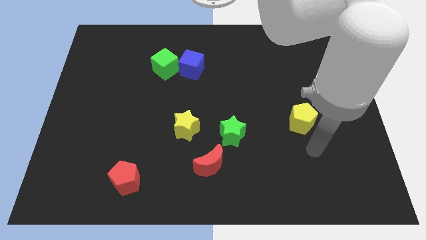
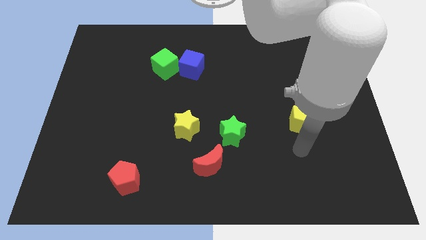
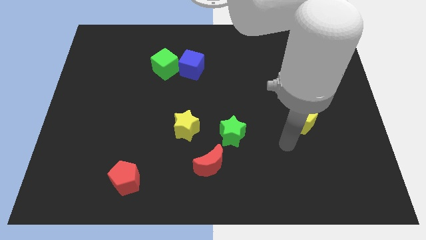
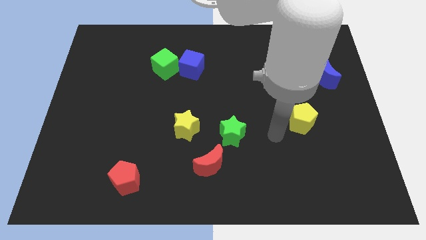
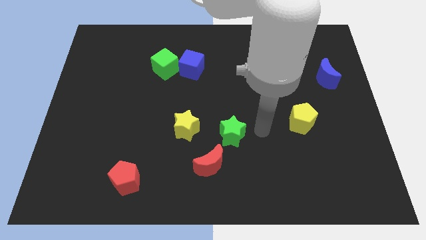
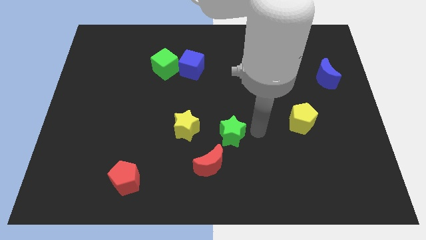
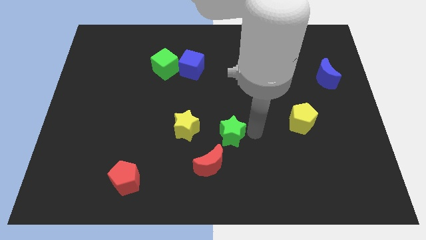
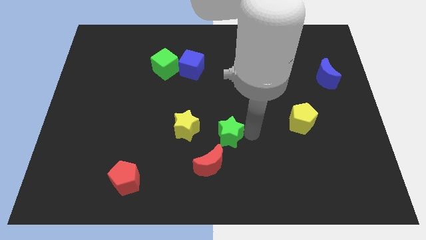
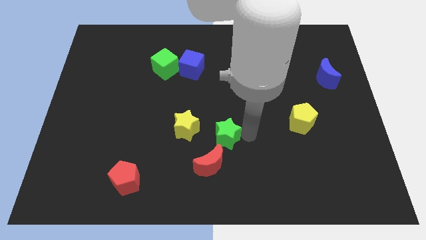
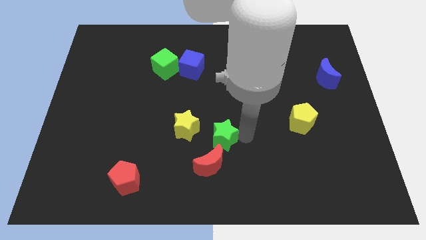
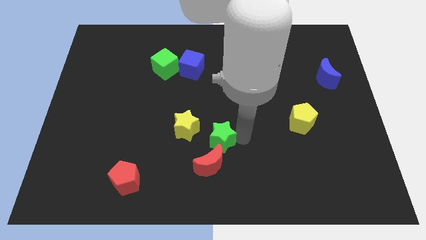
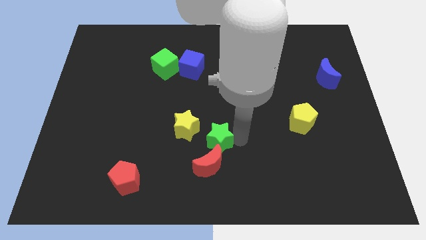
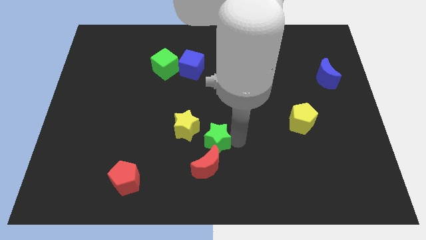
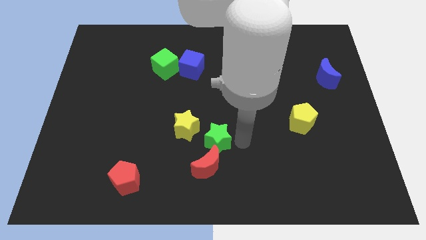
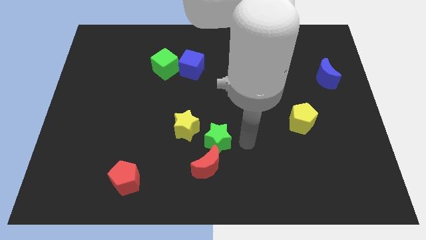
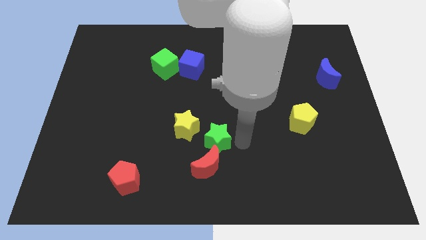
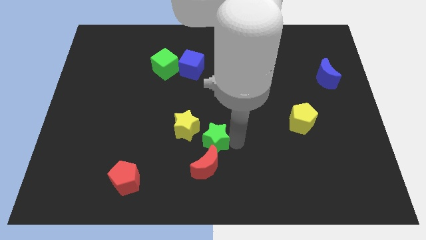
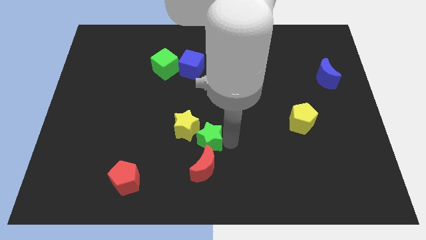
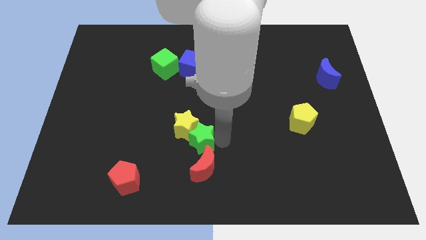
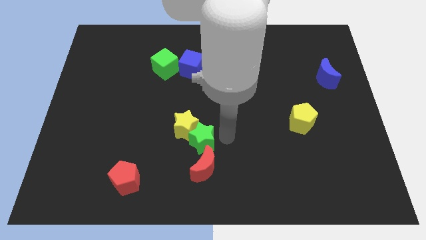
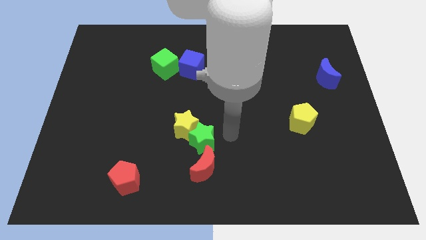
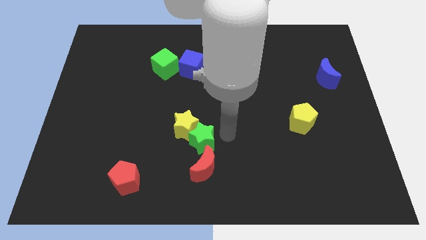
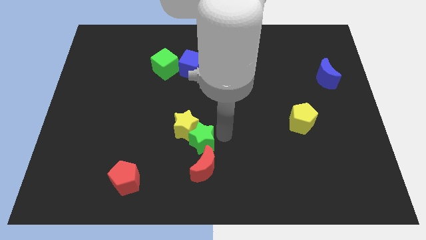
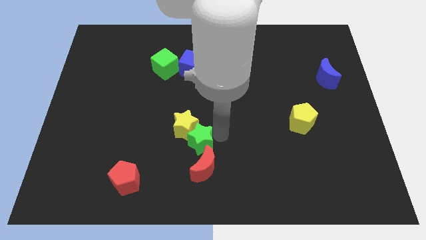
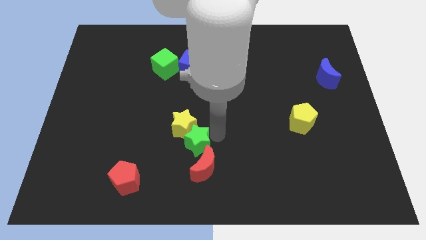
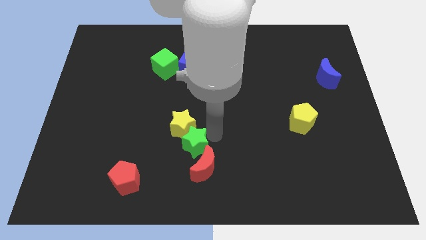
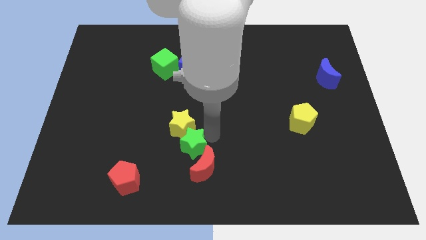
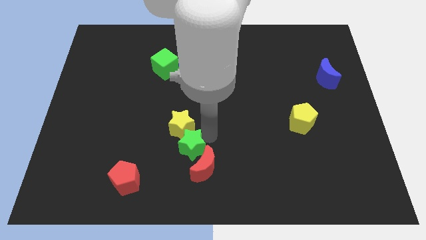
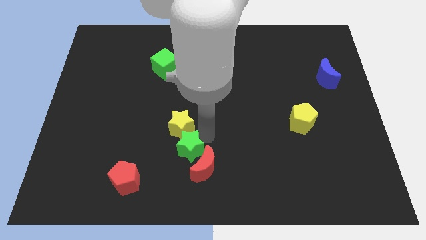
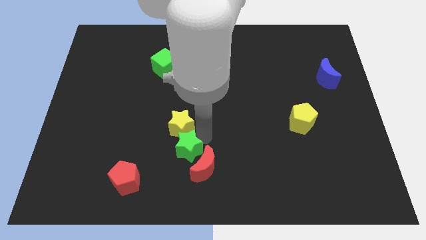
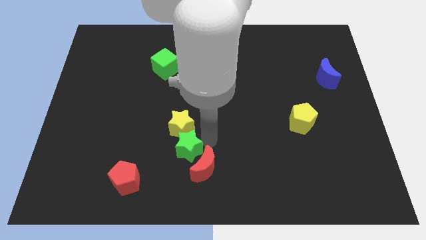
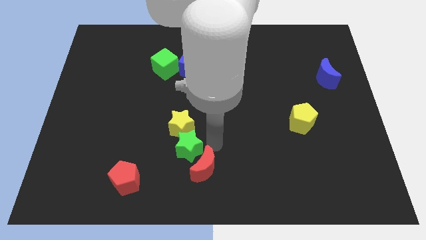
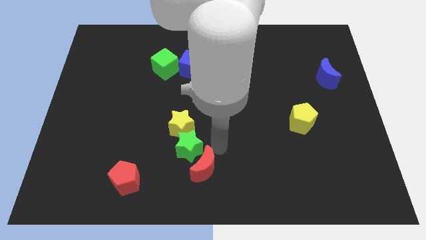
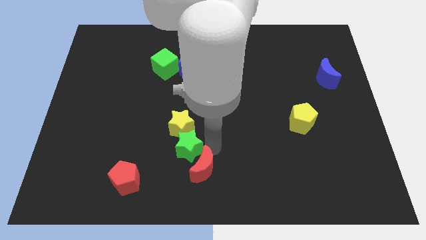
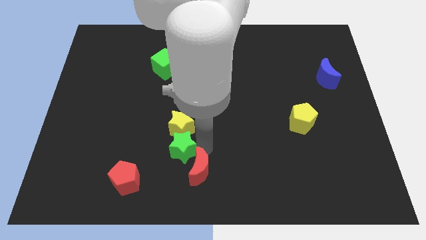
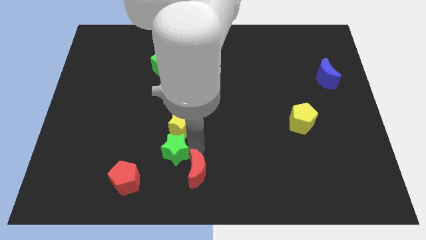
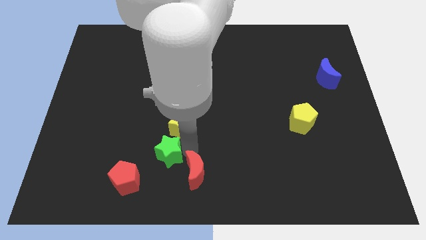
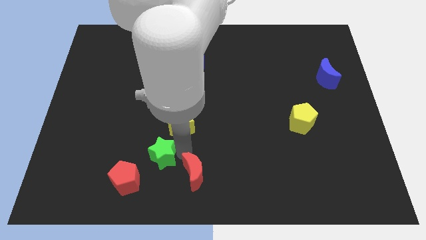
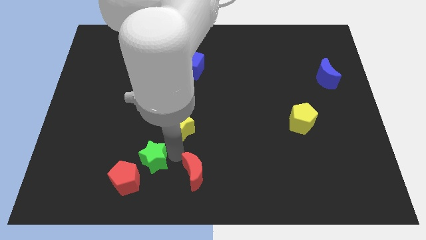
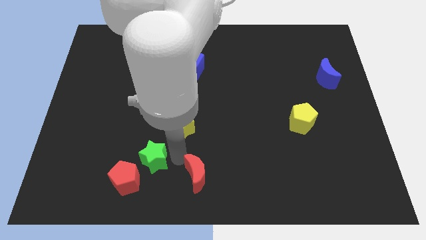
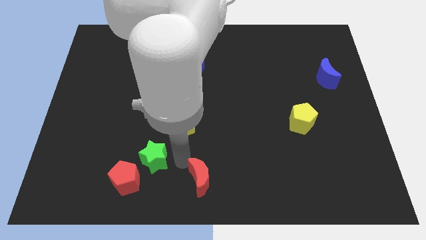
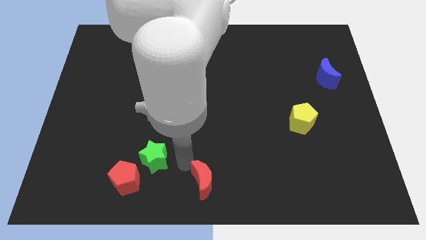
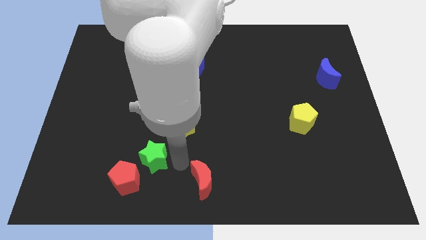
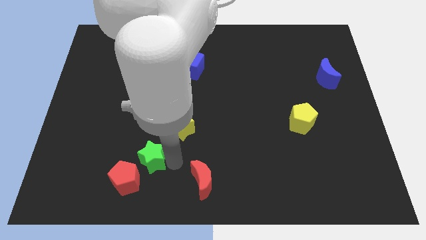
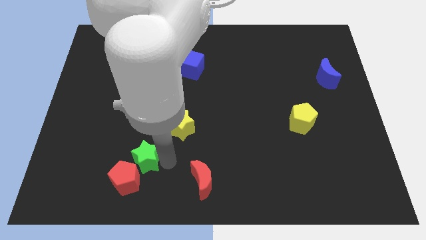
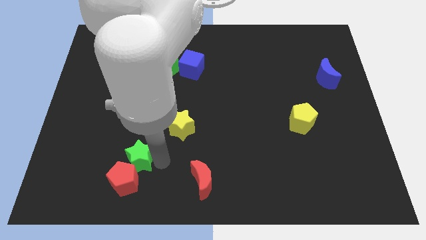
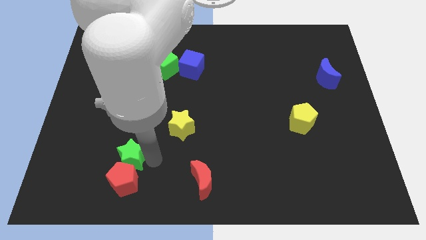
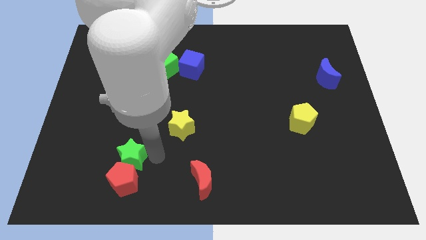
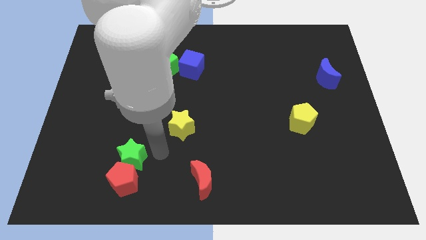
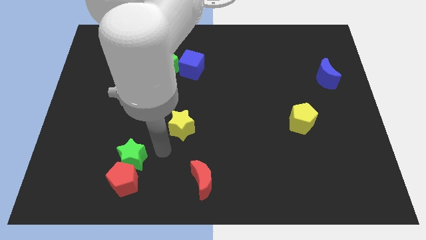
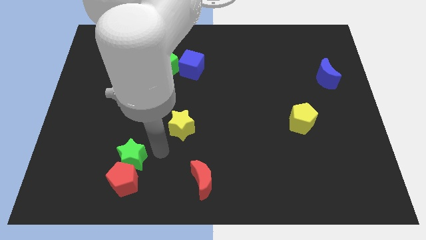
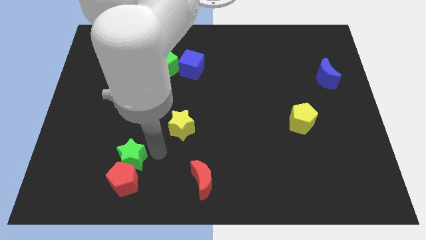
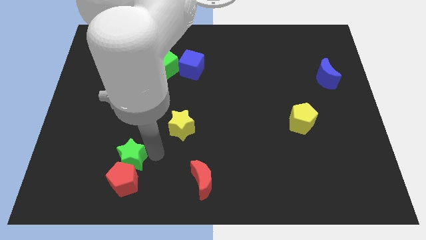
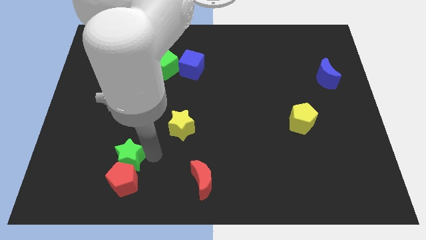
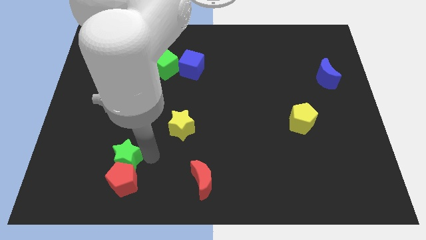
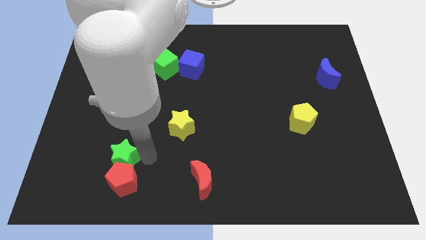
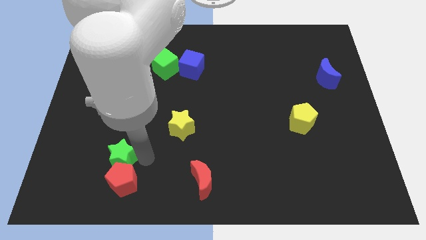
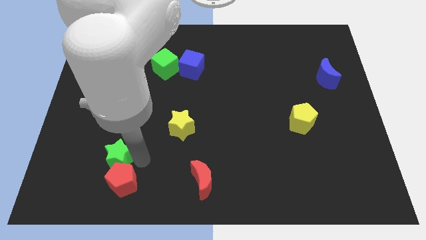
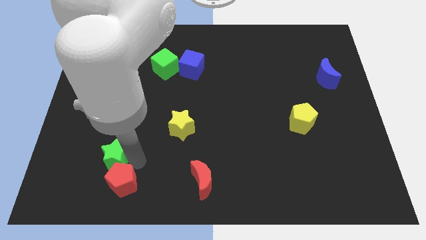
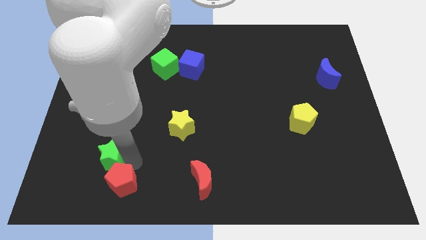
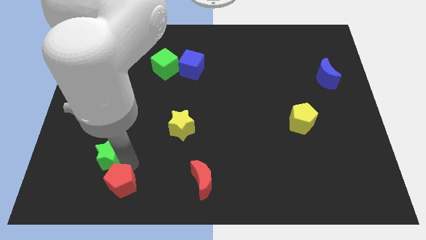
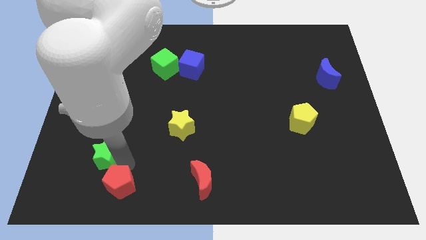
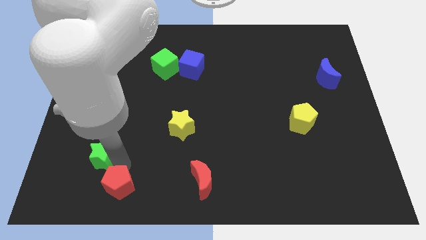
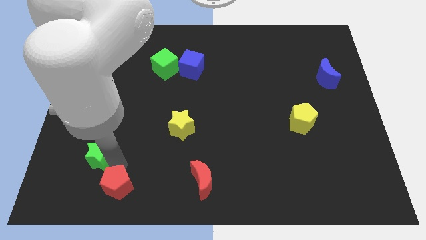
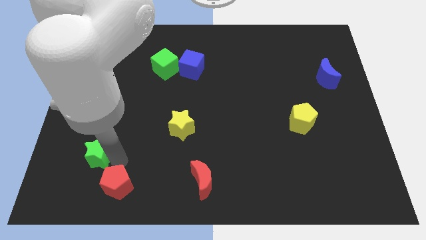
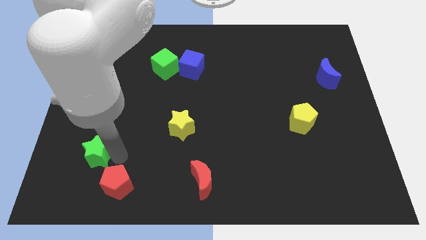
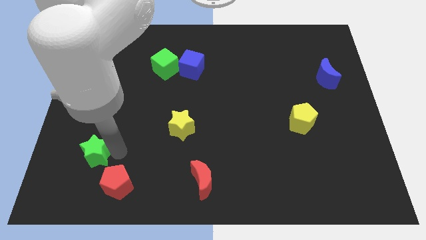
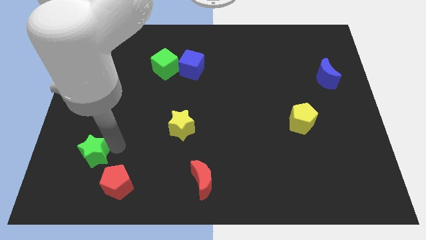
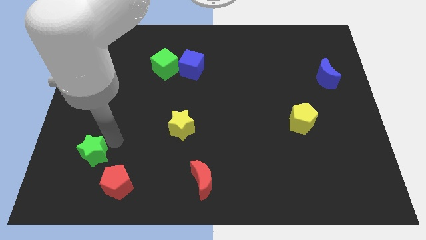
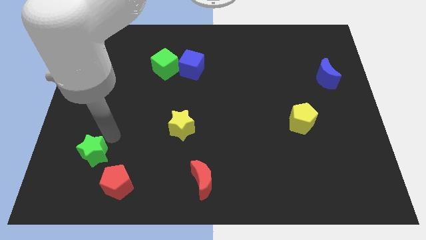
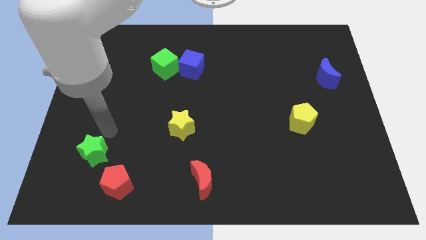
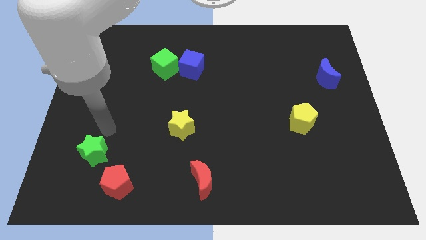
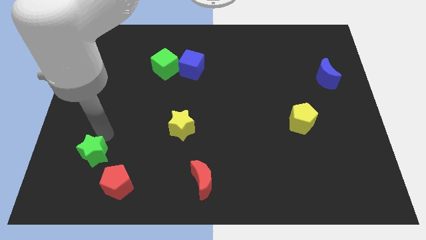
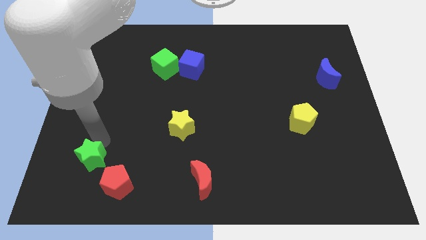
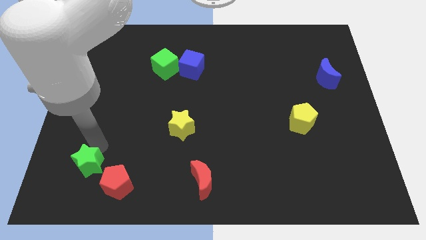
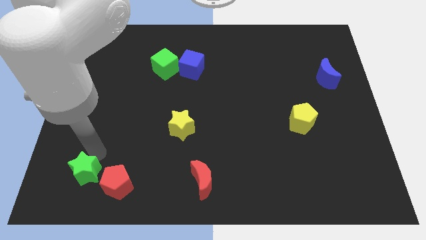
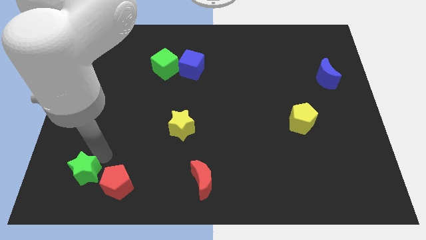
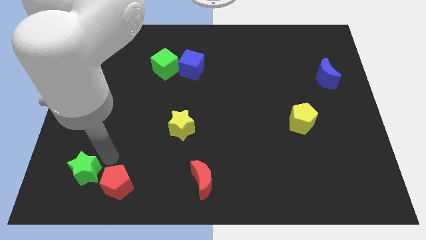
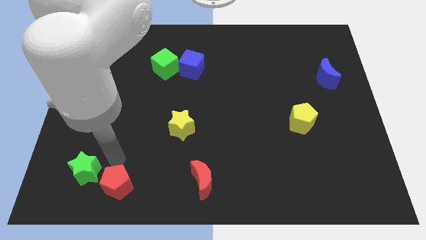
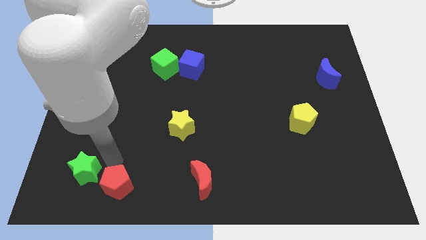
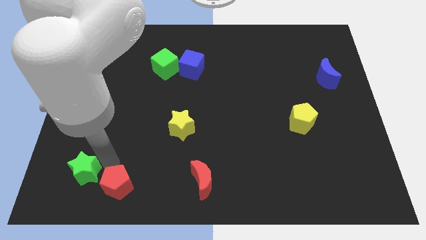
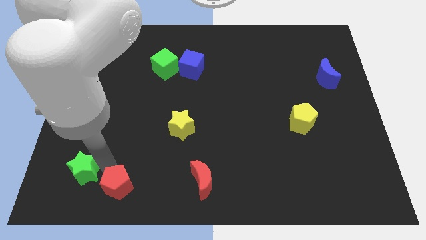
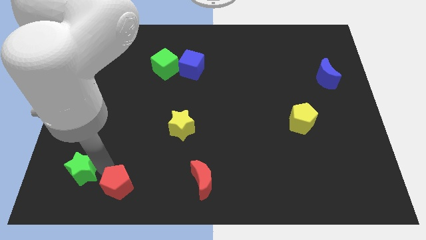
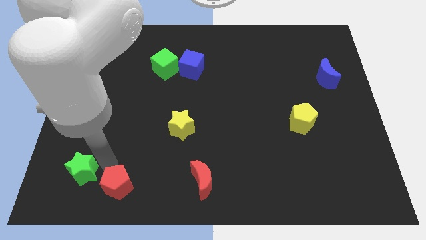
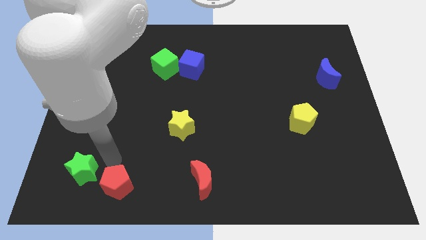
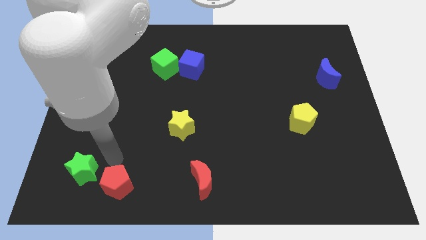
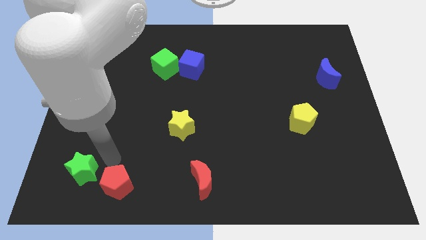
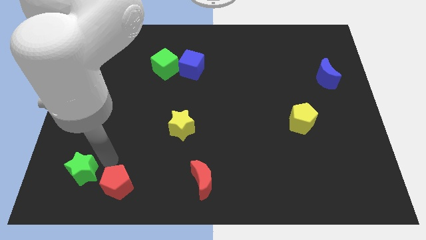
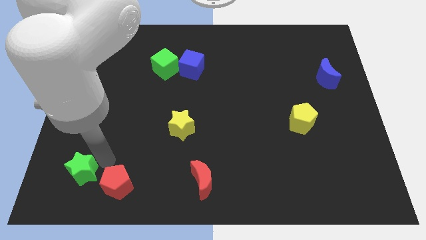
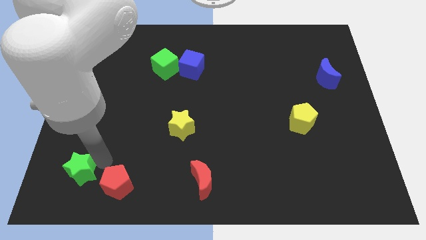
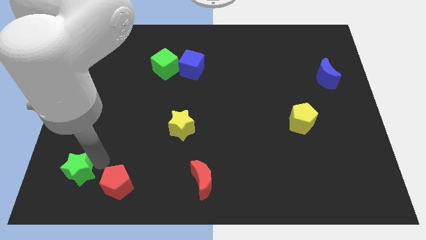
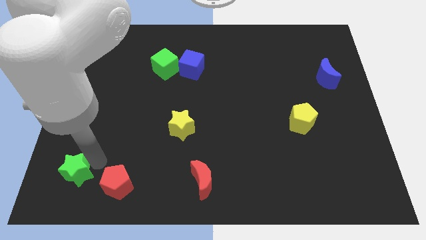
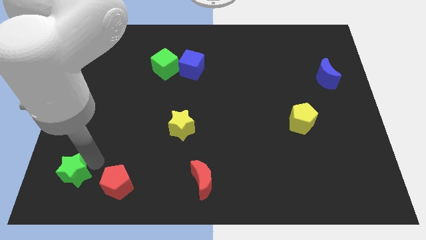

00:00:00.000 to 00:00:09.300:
put the green star to the bottom left
